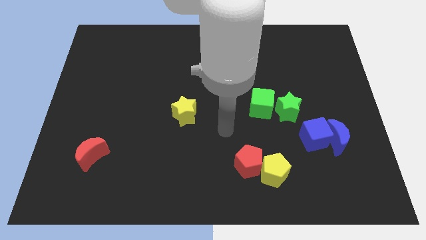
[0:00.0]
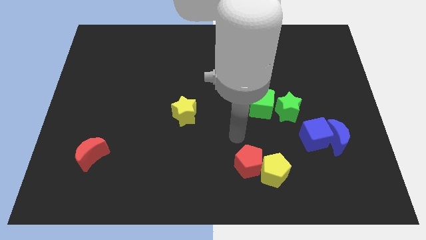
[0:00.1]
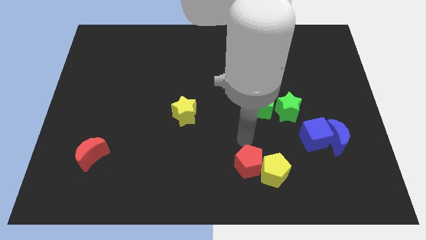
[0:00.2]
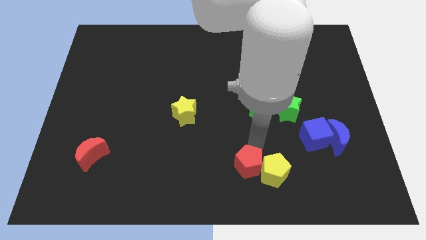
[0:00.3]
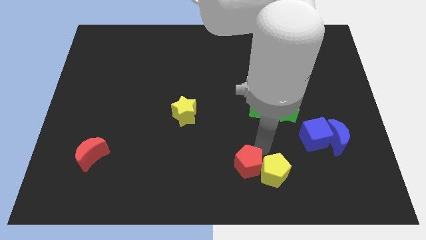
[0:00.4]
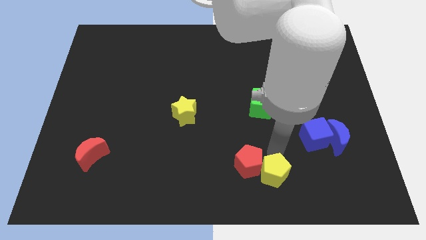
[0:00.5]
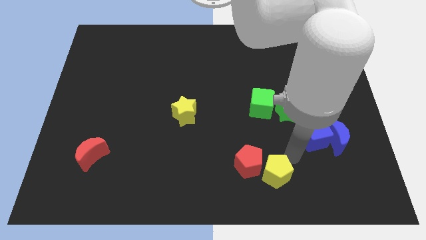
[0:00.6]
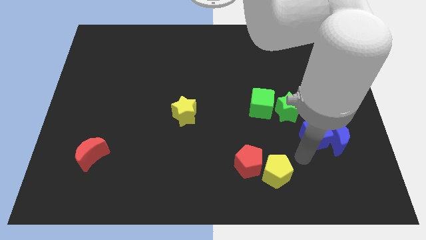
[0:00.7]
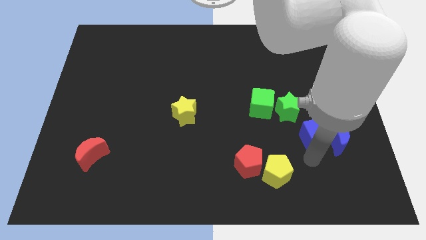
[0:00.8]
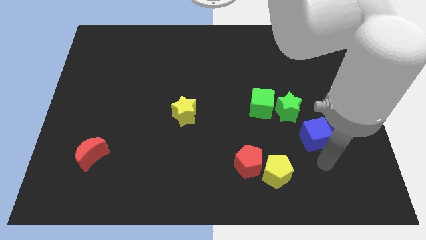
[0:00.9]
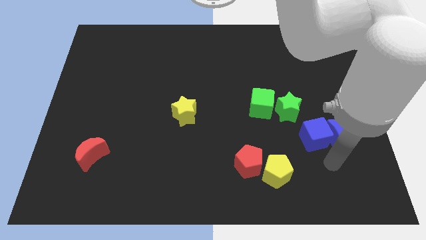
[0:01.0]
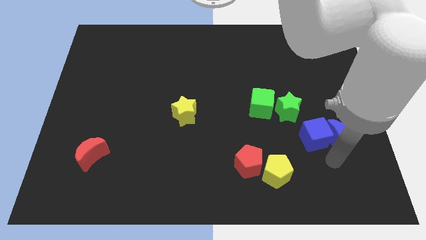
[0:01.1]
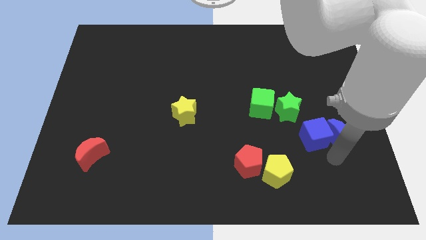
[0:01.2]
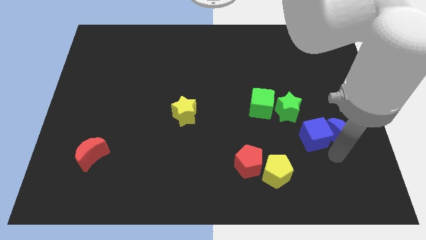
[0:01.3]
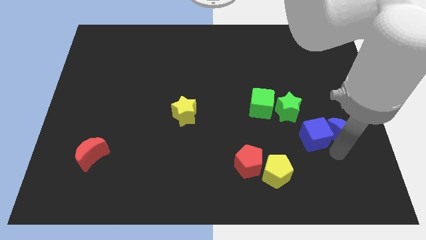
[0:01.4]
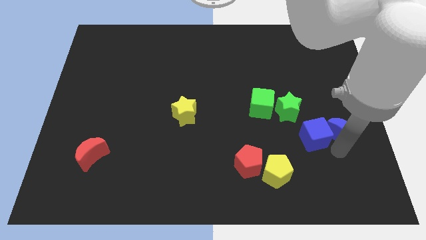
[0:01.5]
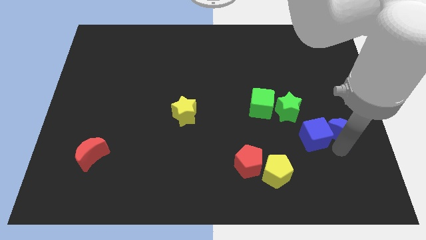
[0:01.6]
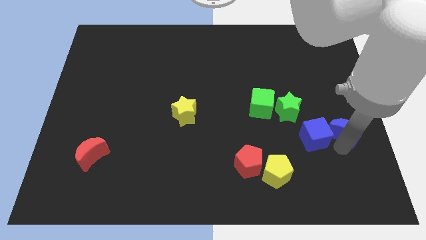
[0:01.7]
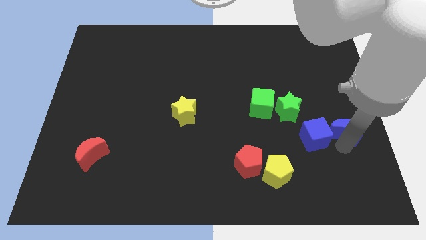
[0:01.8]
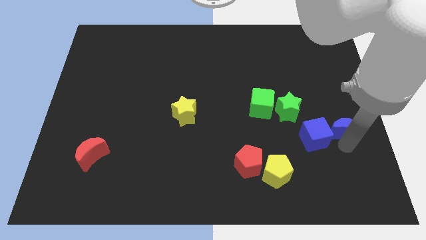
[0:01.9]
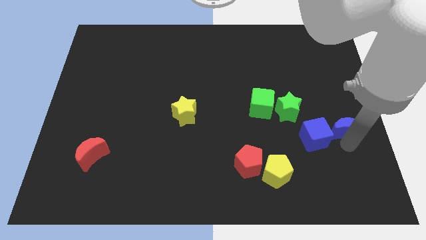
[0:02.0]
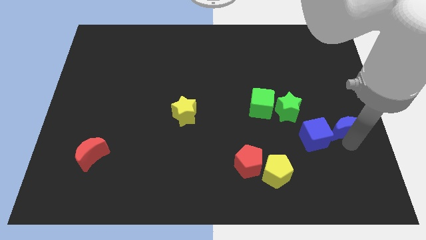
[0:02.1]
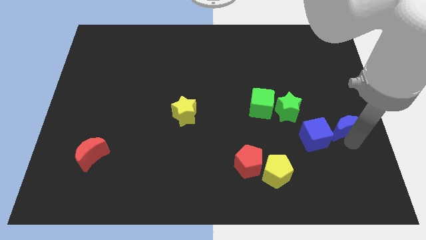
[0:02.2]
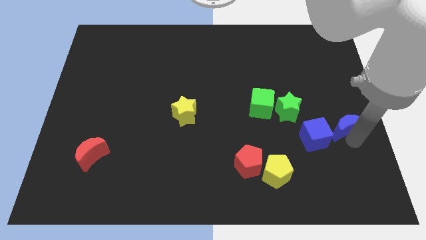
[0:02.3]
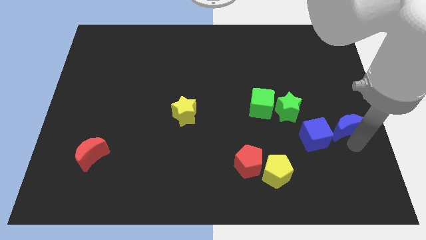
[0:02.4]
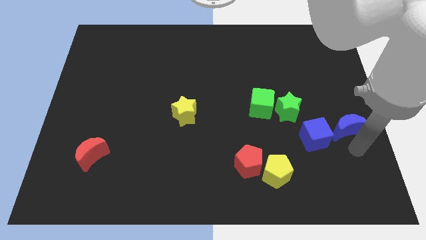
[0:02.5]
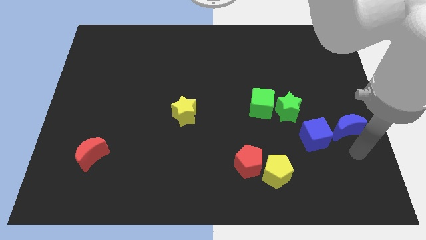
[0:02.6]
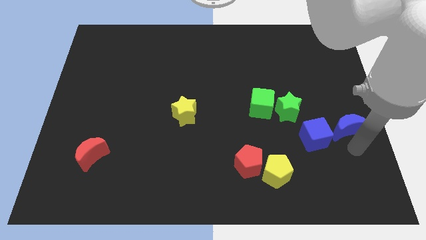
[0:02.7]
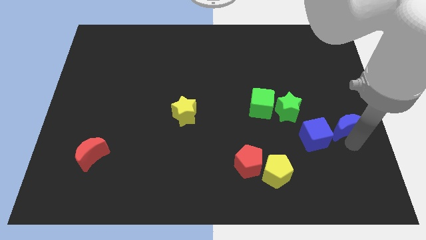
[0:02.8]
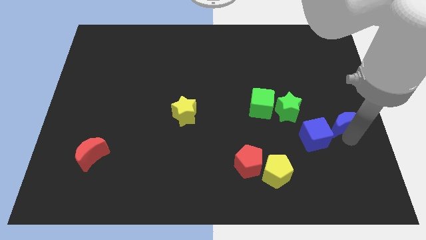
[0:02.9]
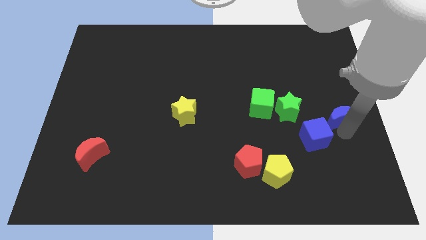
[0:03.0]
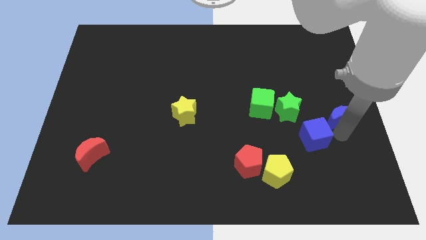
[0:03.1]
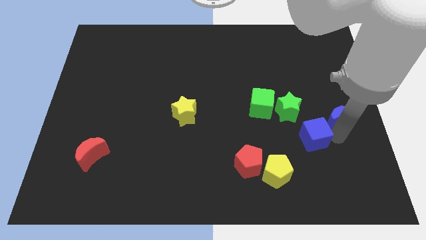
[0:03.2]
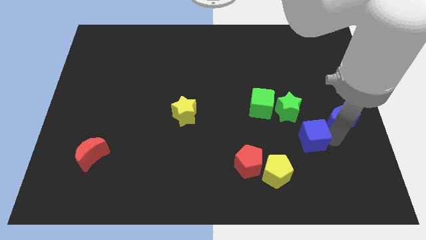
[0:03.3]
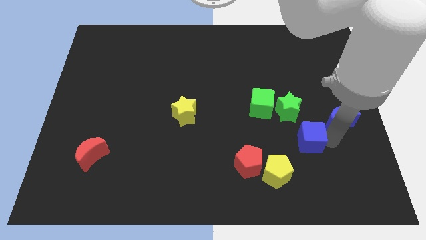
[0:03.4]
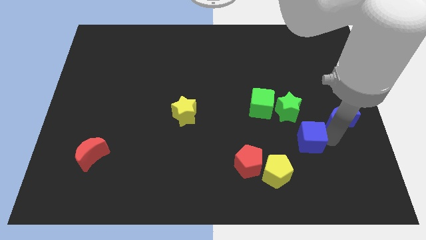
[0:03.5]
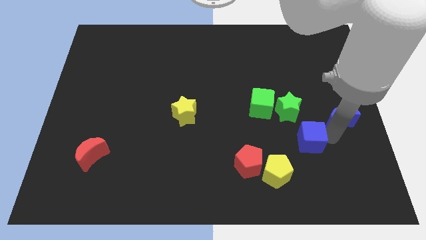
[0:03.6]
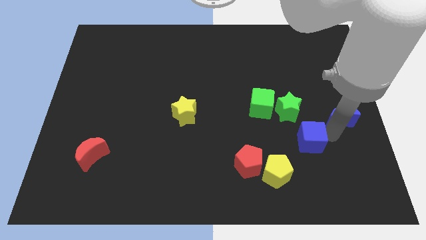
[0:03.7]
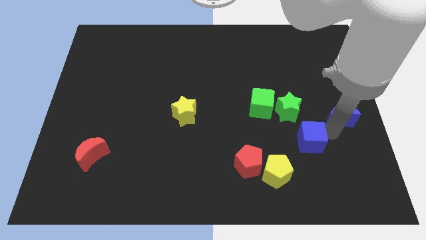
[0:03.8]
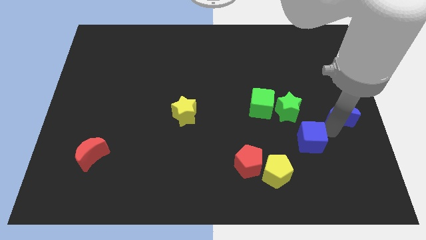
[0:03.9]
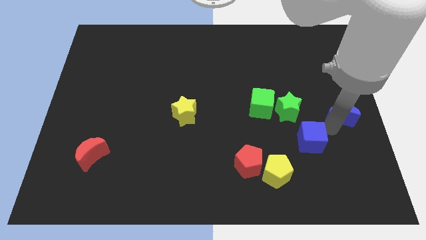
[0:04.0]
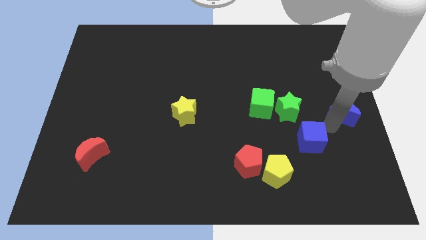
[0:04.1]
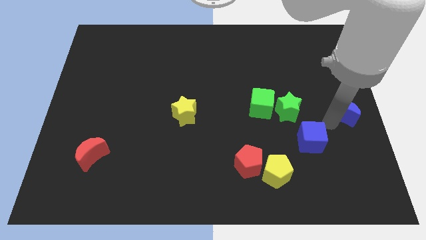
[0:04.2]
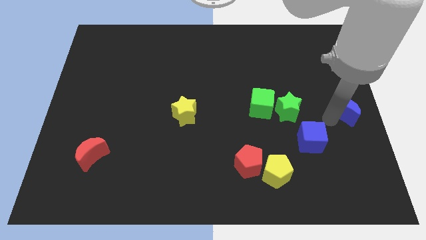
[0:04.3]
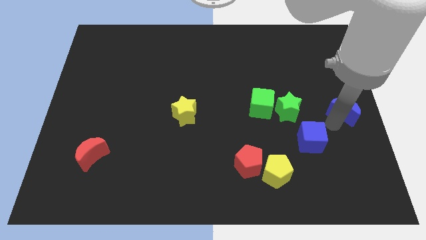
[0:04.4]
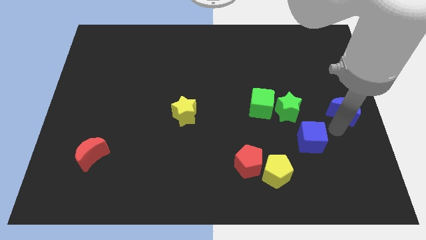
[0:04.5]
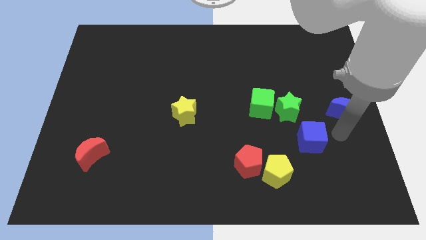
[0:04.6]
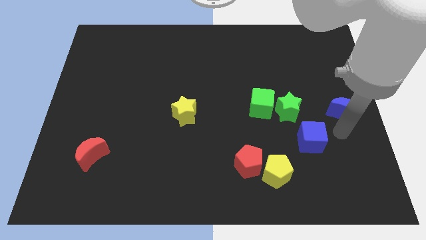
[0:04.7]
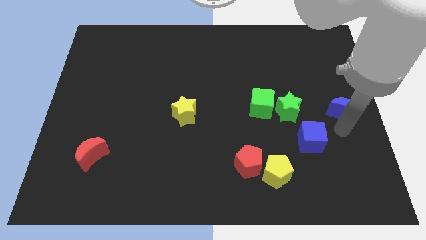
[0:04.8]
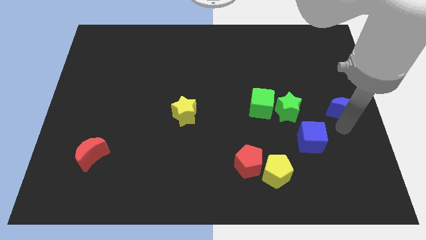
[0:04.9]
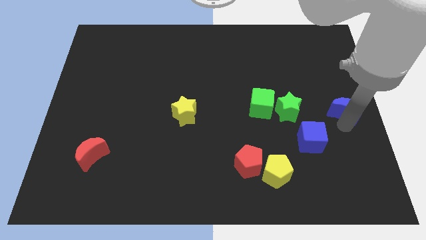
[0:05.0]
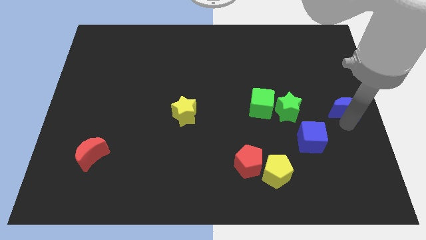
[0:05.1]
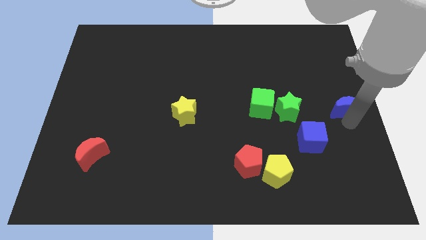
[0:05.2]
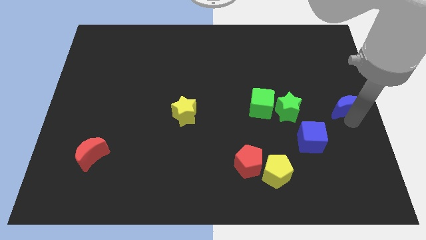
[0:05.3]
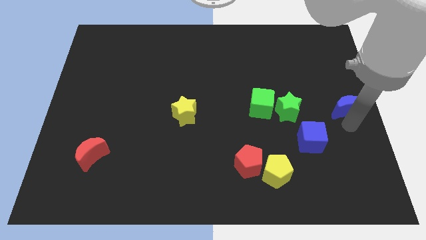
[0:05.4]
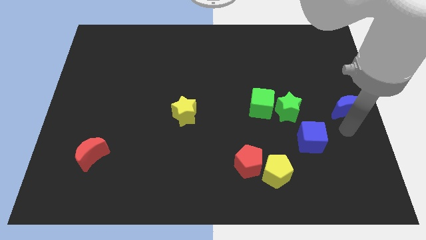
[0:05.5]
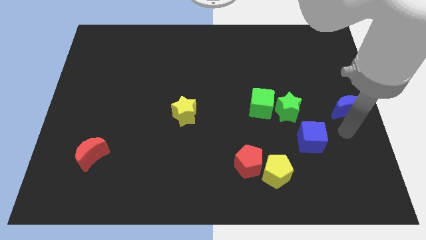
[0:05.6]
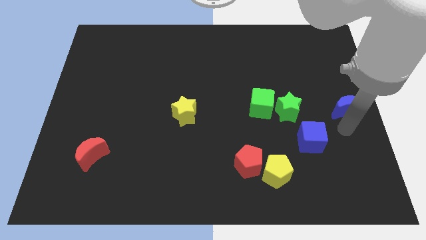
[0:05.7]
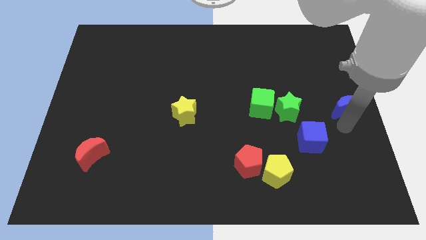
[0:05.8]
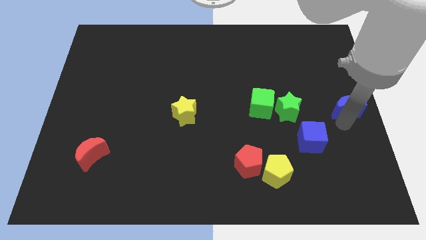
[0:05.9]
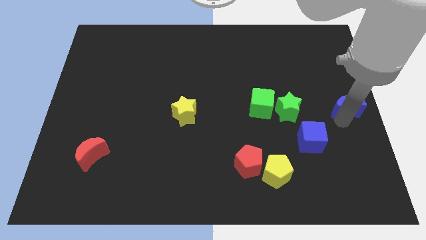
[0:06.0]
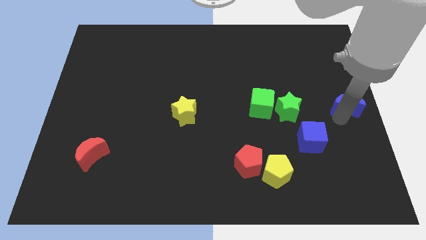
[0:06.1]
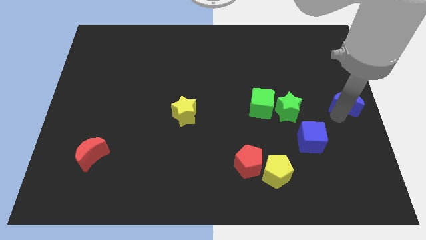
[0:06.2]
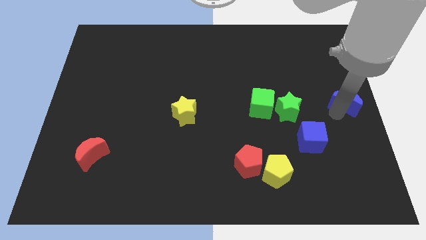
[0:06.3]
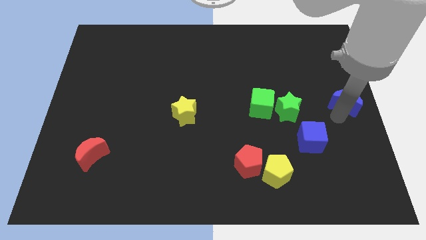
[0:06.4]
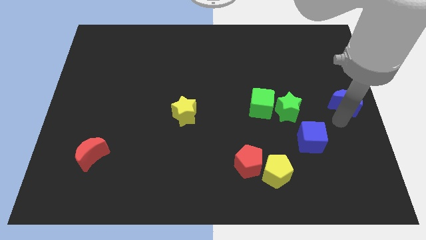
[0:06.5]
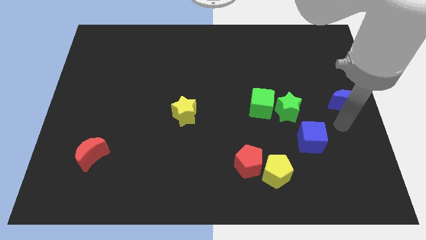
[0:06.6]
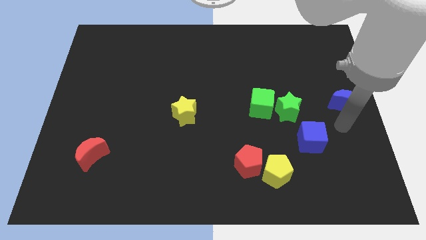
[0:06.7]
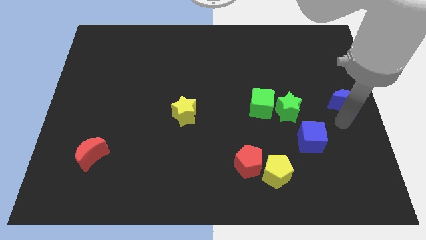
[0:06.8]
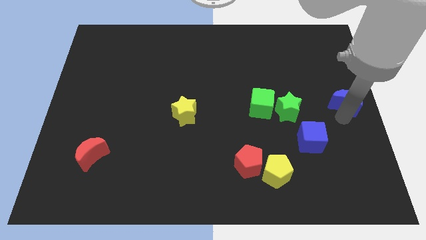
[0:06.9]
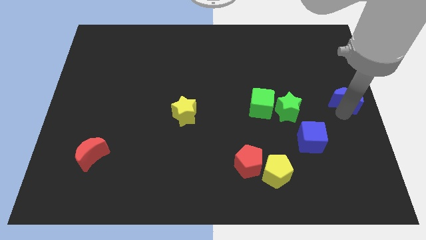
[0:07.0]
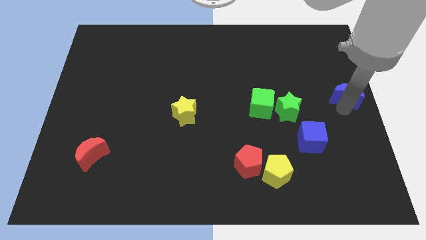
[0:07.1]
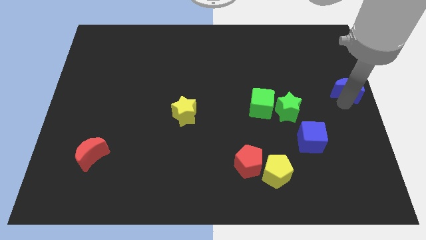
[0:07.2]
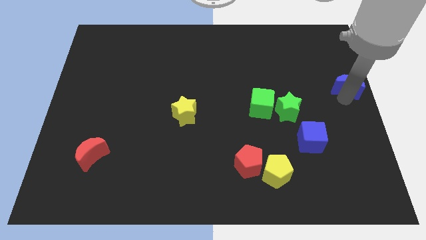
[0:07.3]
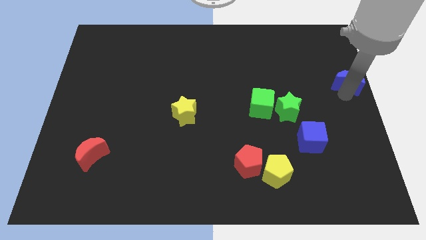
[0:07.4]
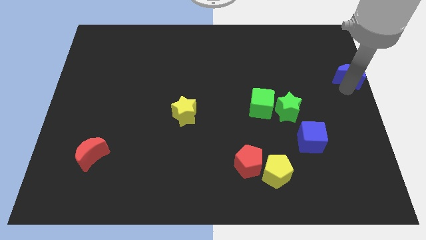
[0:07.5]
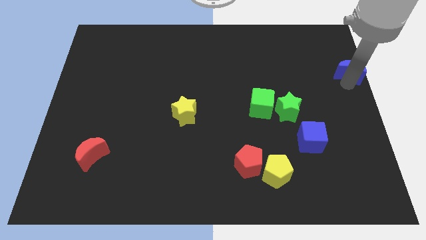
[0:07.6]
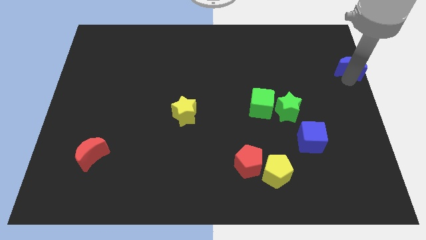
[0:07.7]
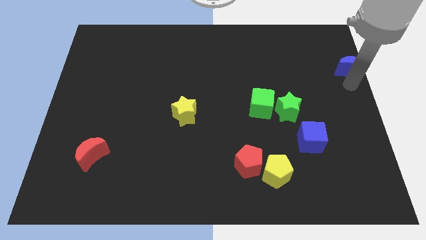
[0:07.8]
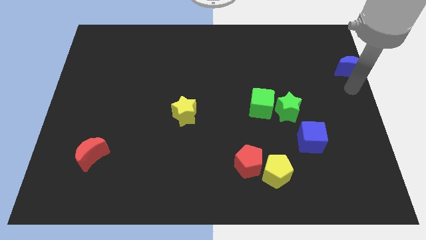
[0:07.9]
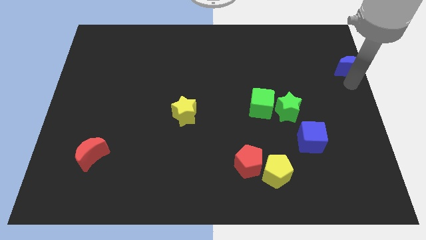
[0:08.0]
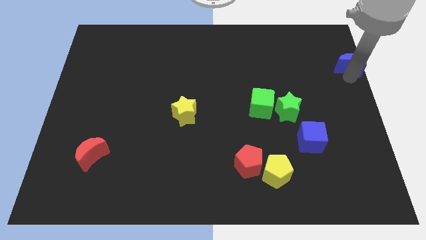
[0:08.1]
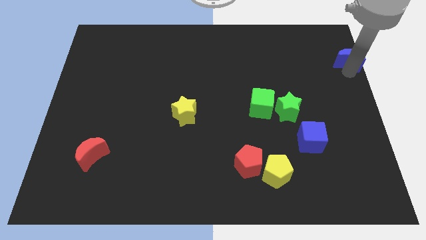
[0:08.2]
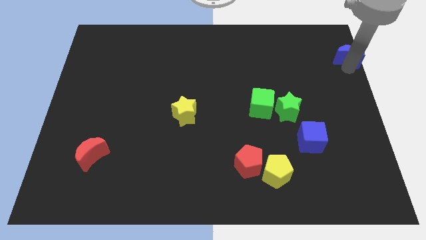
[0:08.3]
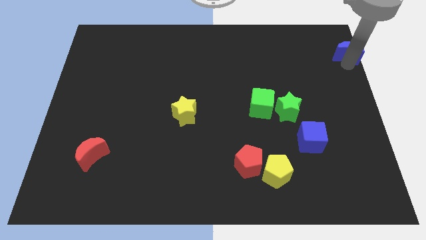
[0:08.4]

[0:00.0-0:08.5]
push the blue moon to the top right corner
